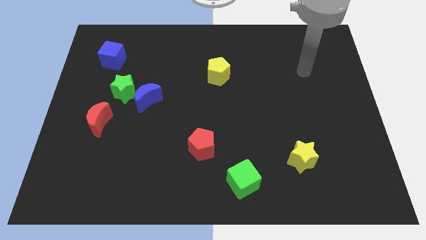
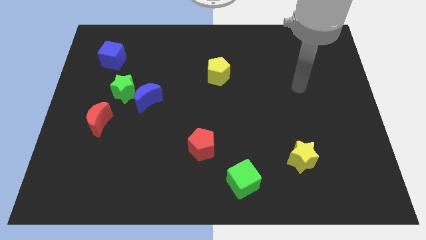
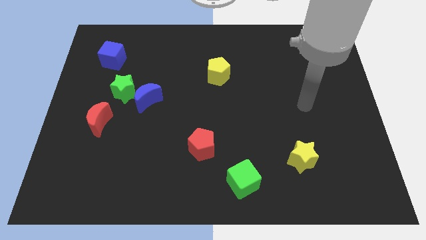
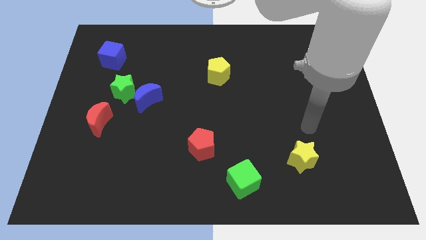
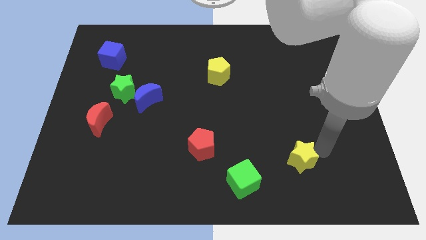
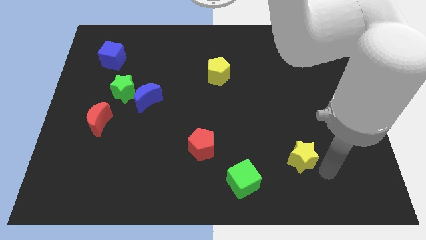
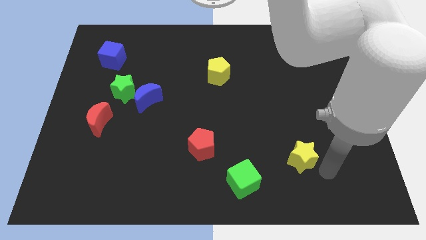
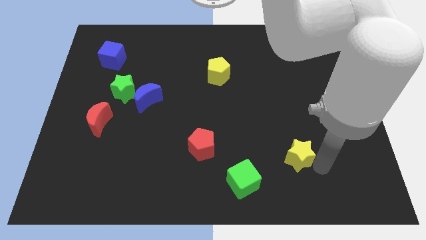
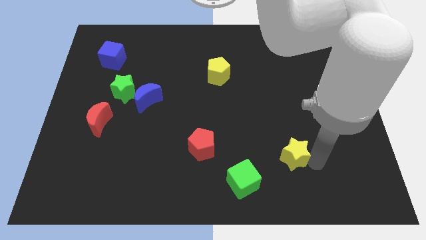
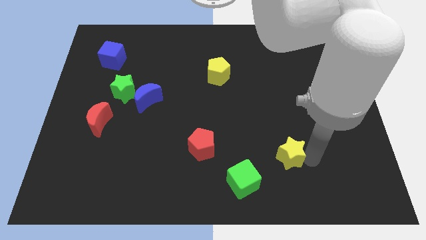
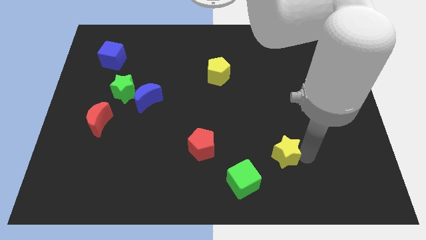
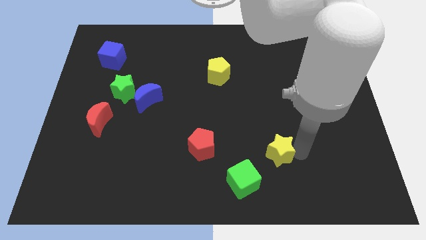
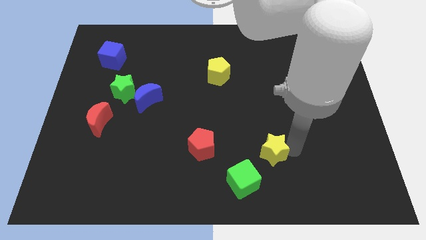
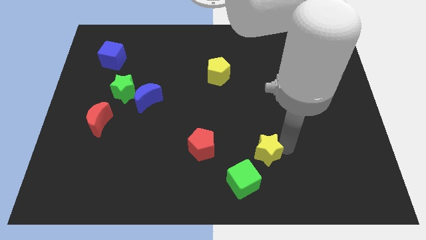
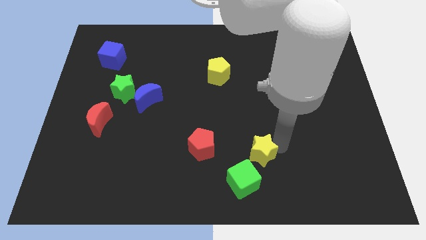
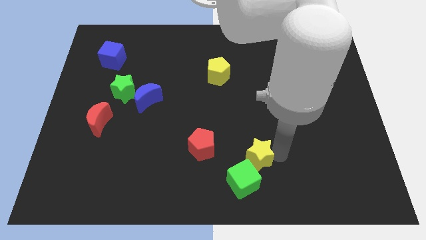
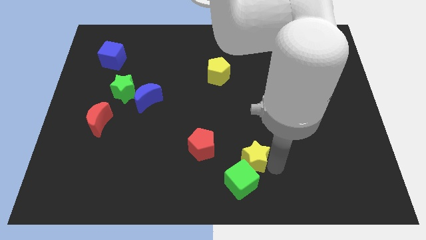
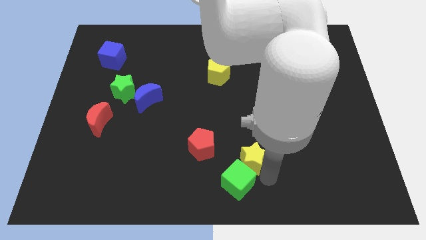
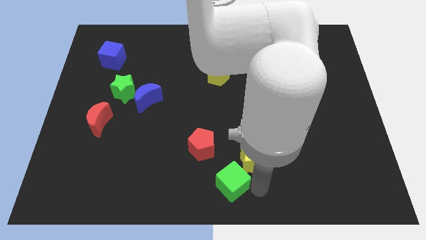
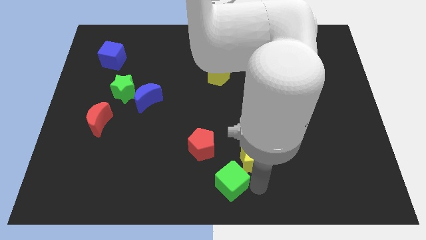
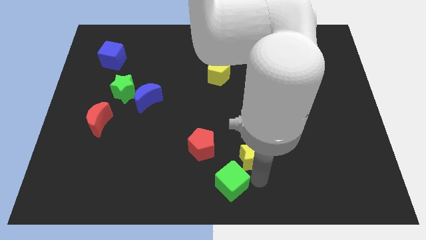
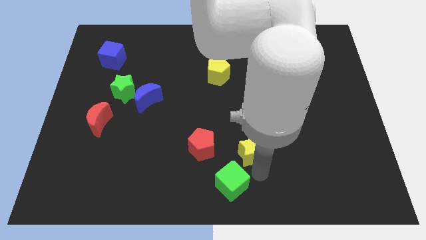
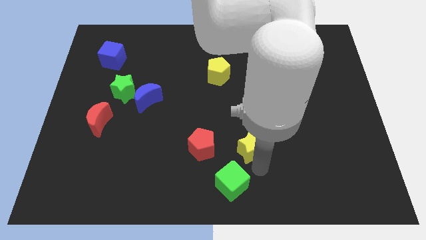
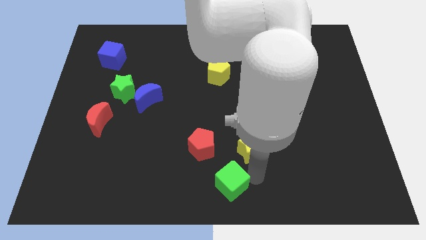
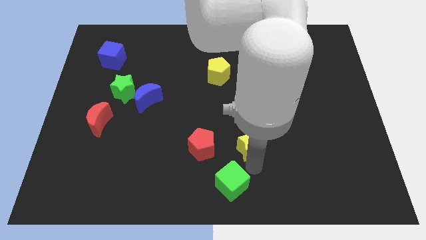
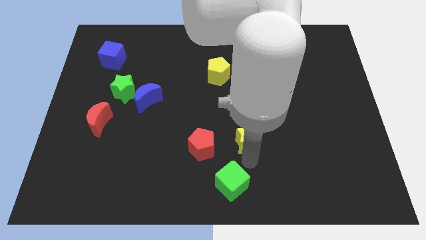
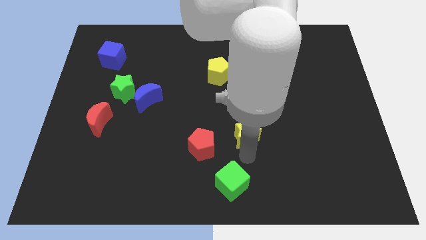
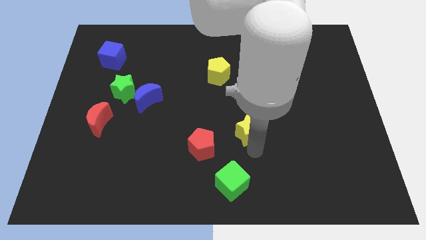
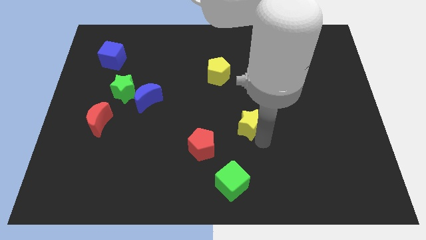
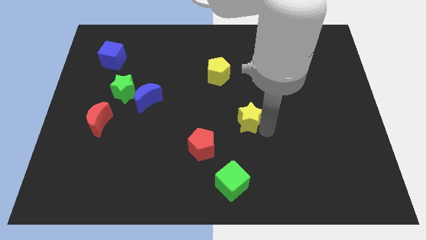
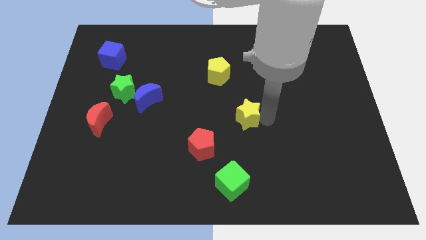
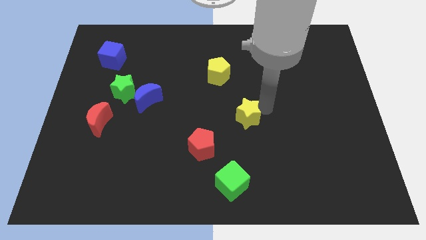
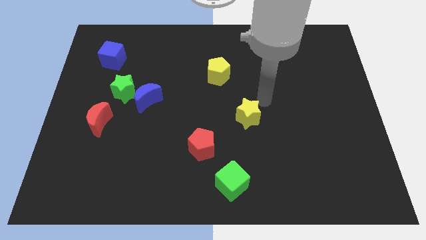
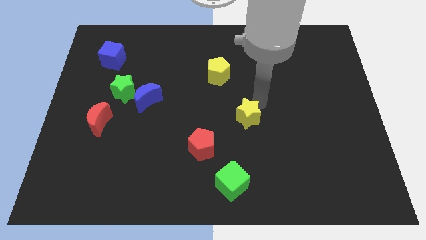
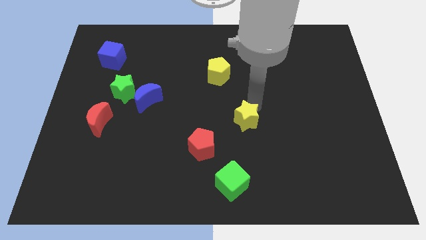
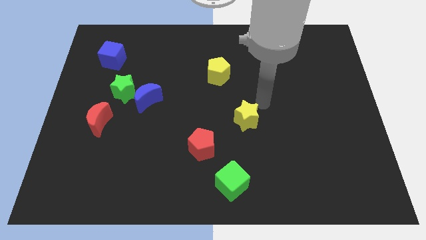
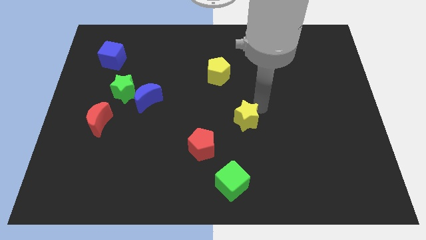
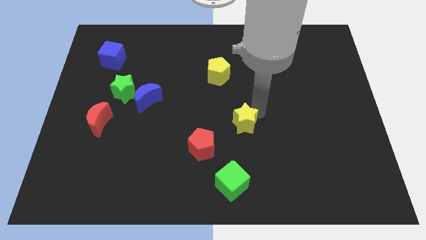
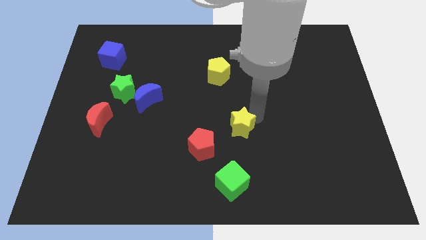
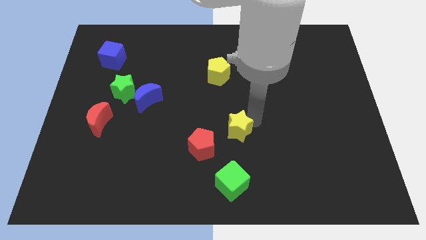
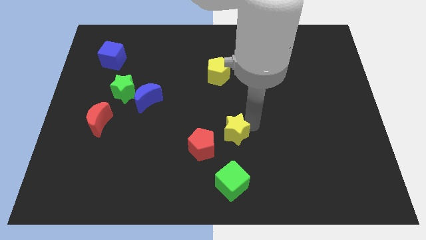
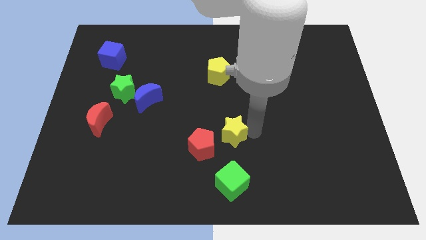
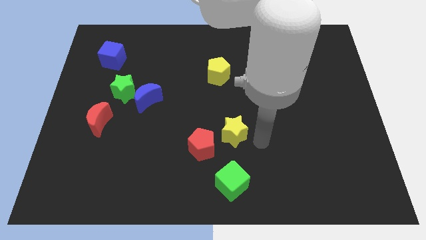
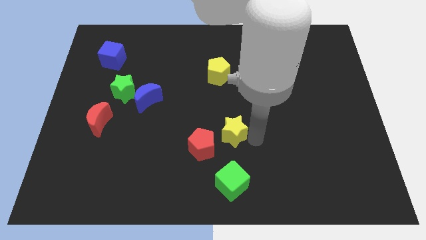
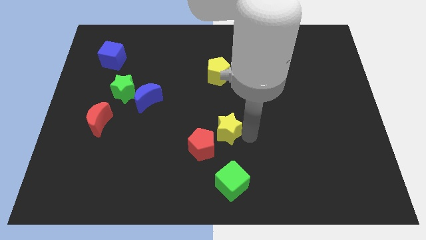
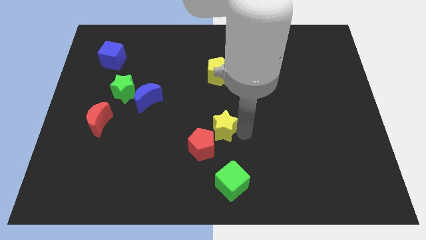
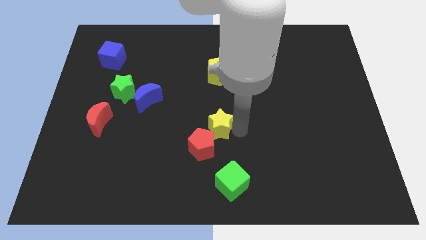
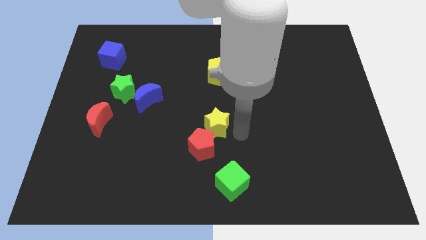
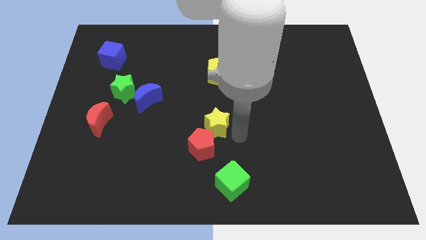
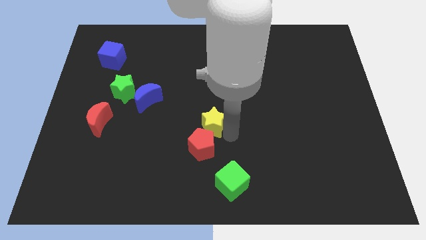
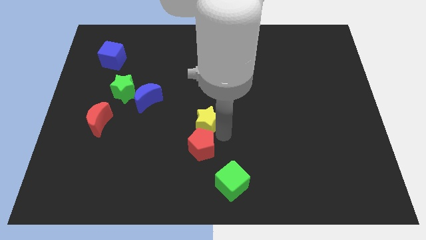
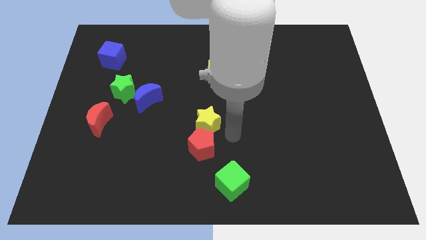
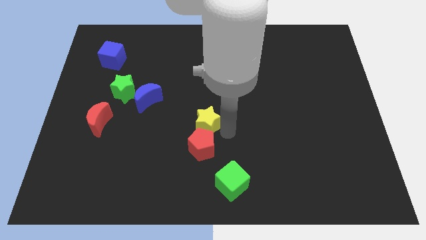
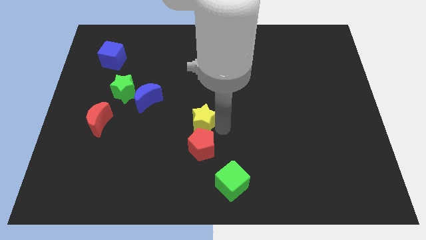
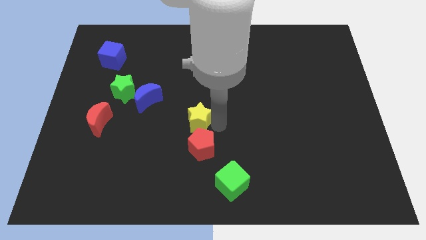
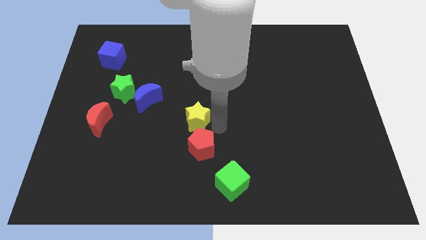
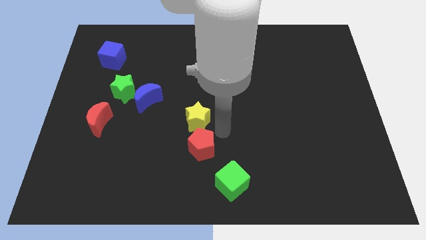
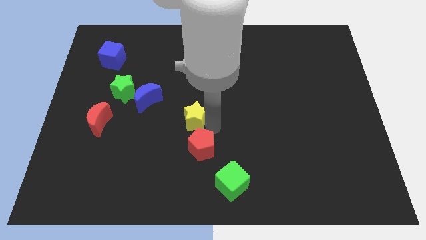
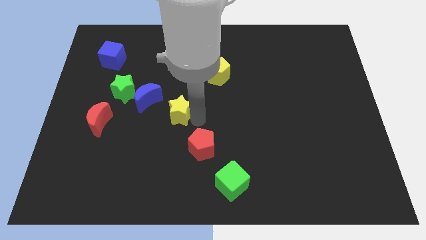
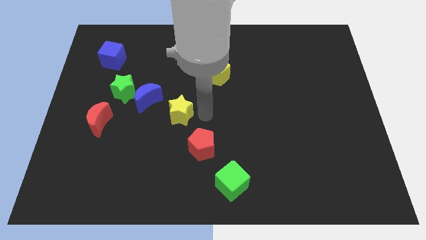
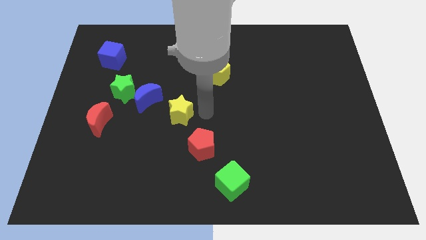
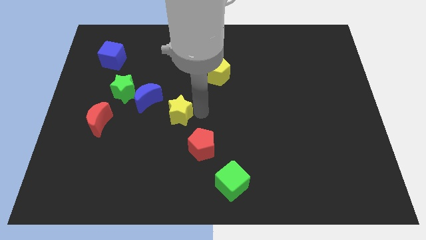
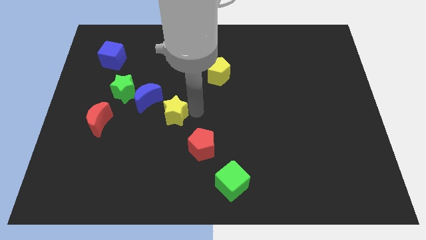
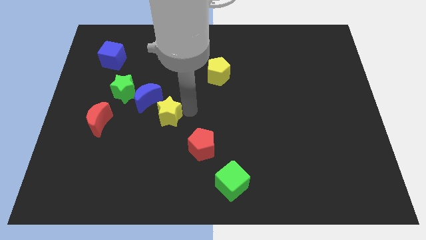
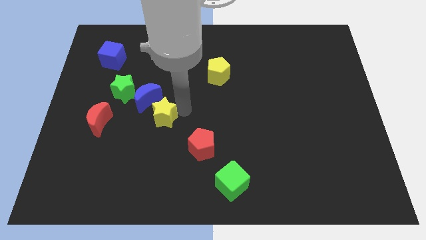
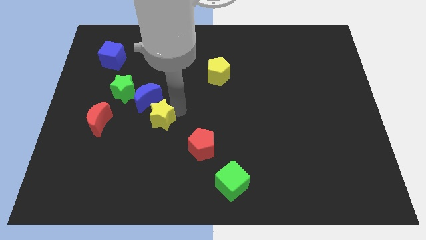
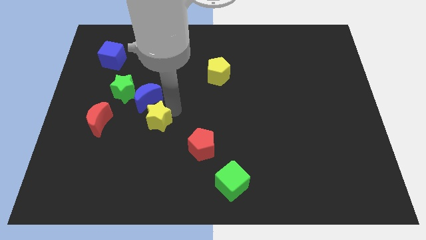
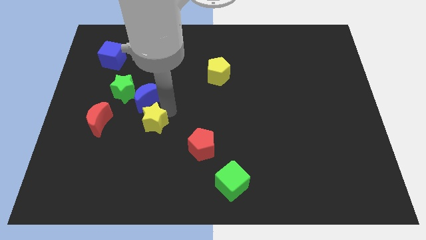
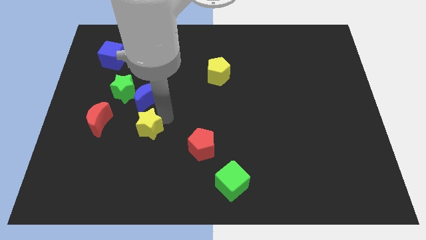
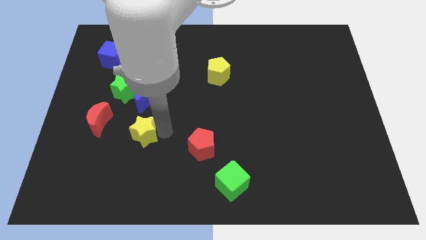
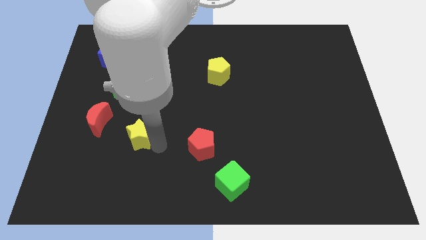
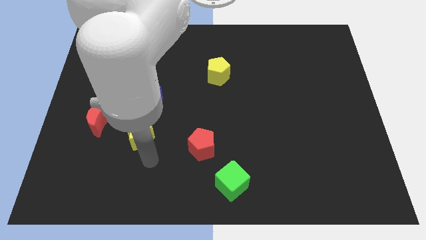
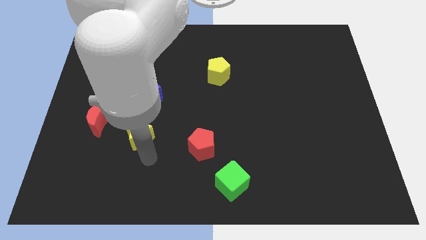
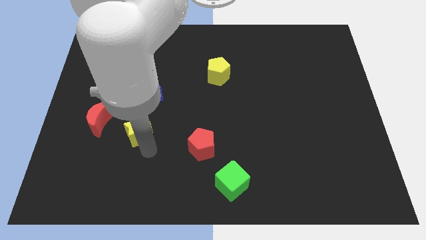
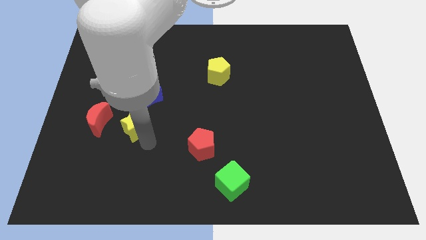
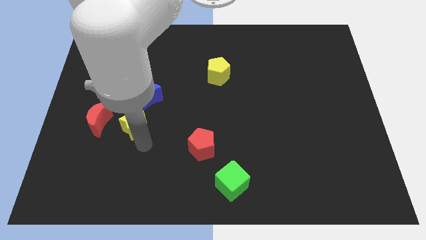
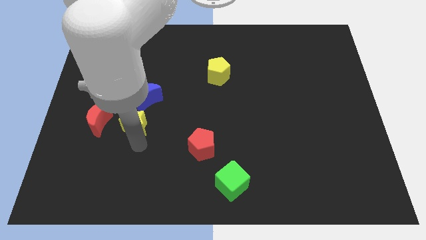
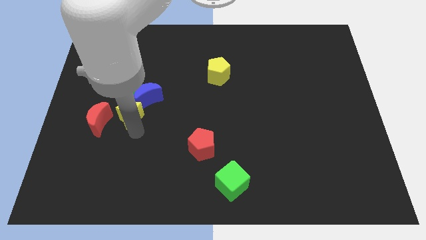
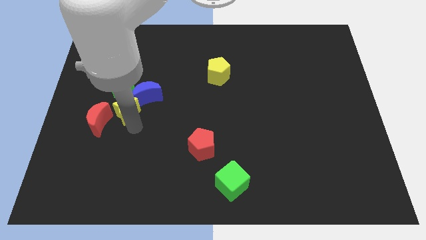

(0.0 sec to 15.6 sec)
put the yellow star to the green star
